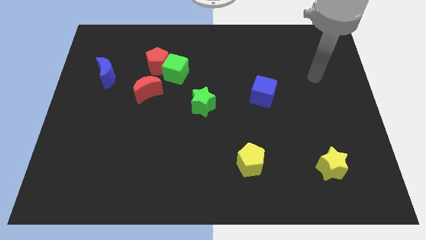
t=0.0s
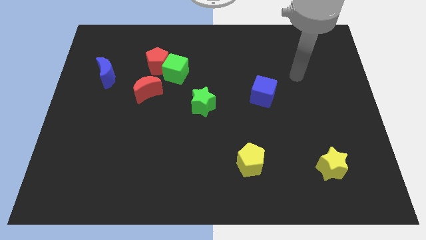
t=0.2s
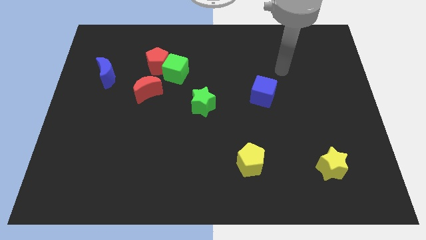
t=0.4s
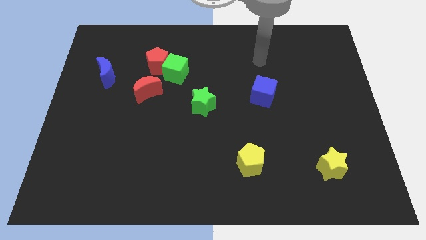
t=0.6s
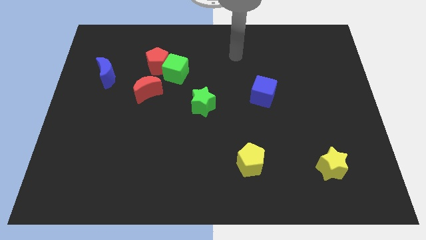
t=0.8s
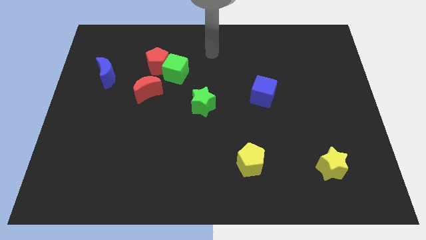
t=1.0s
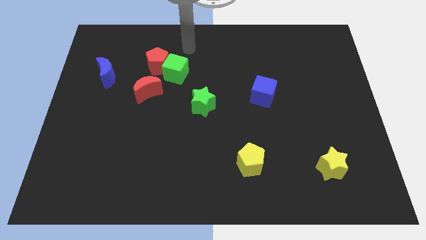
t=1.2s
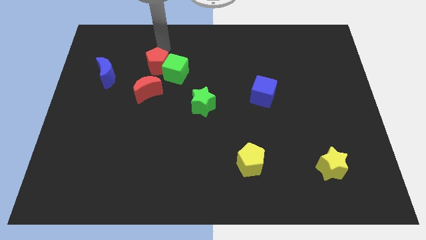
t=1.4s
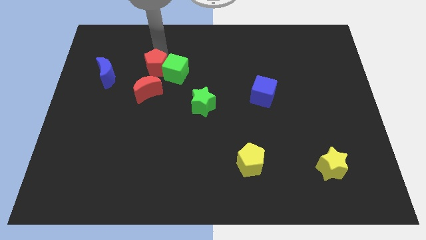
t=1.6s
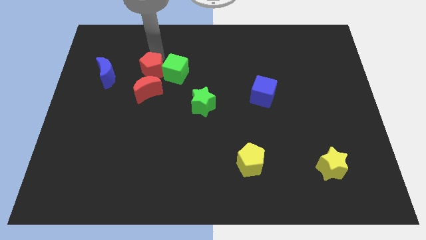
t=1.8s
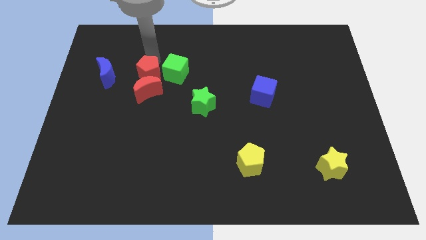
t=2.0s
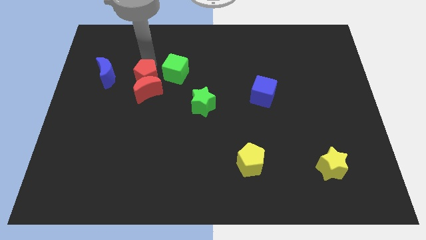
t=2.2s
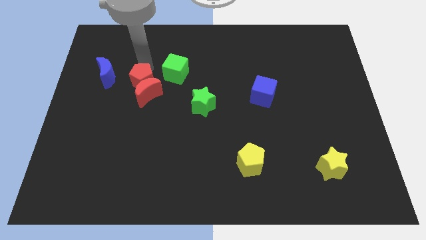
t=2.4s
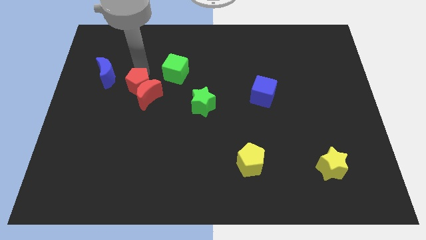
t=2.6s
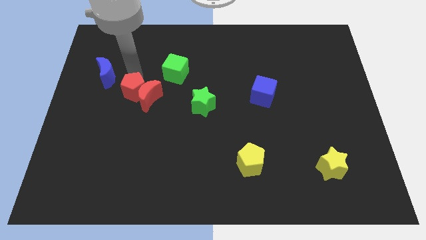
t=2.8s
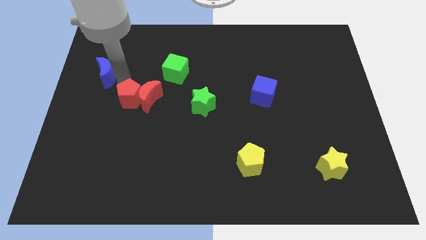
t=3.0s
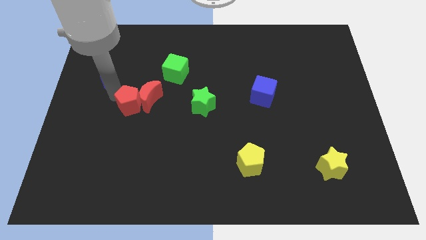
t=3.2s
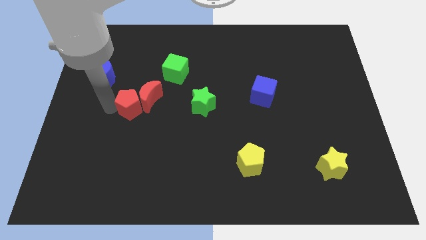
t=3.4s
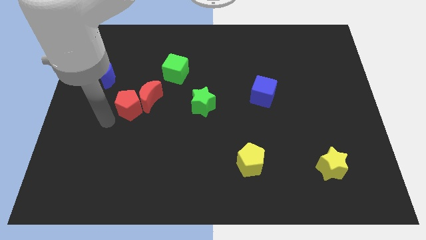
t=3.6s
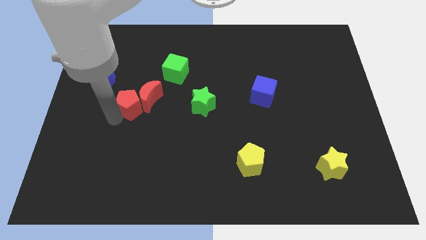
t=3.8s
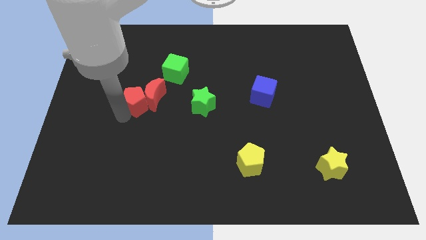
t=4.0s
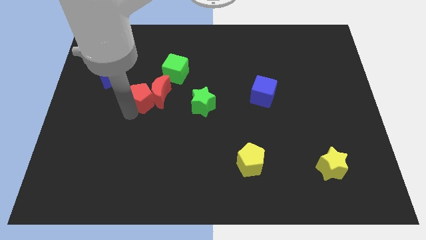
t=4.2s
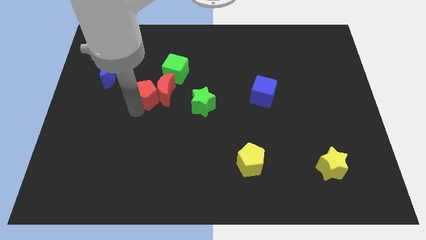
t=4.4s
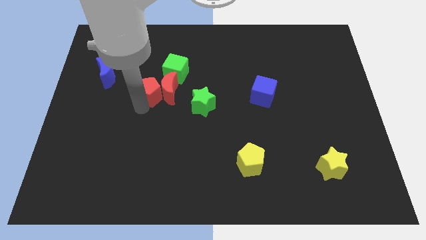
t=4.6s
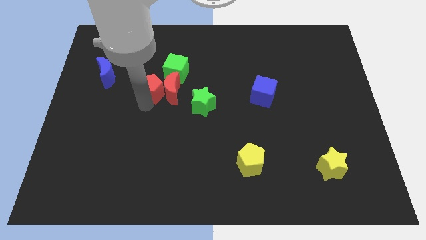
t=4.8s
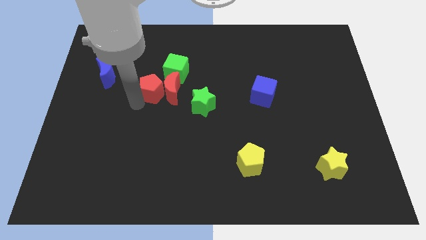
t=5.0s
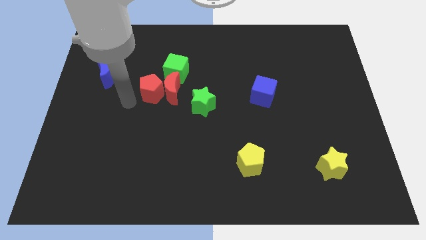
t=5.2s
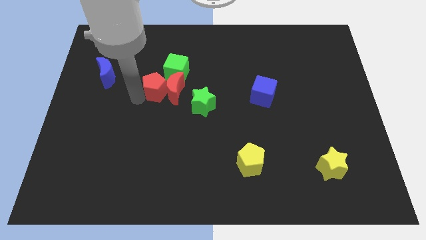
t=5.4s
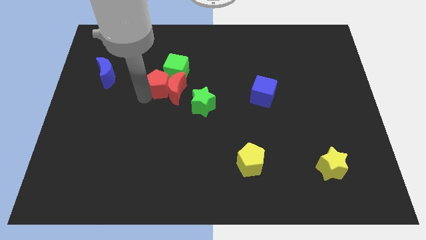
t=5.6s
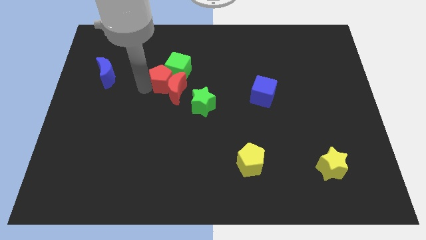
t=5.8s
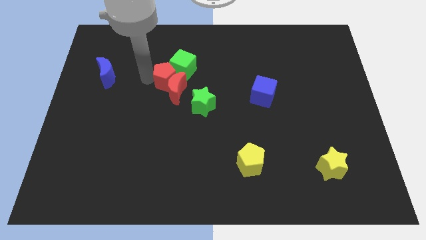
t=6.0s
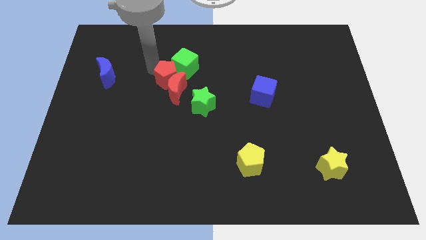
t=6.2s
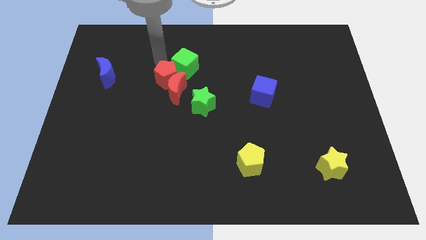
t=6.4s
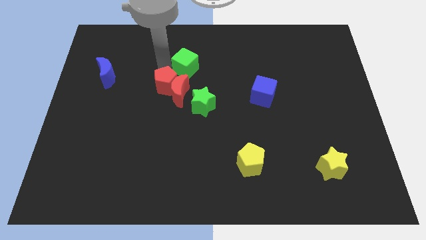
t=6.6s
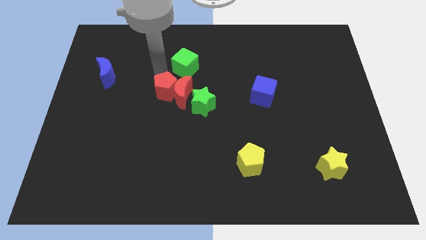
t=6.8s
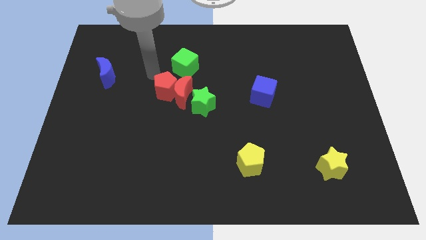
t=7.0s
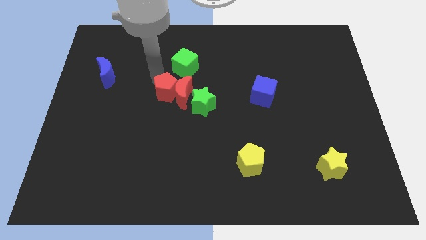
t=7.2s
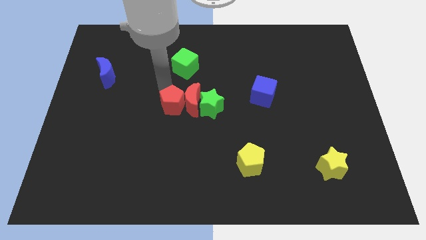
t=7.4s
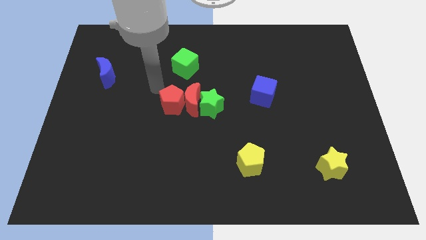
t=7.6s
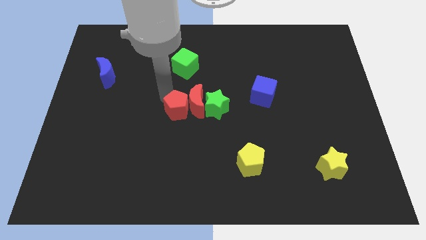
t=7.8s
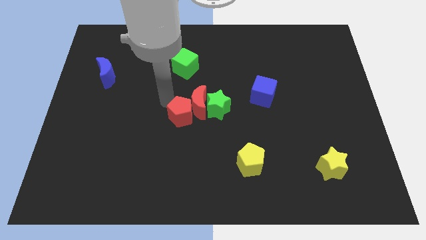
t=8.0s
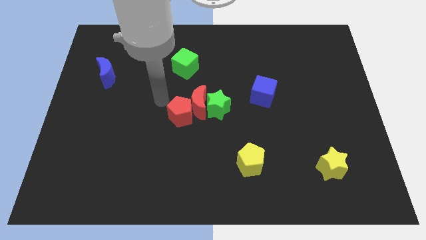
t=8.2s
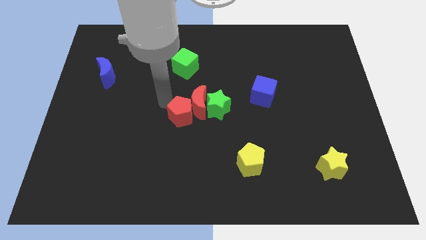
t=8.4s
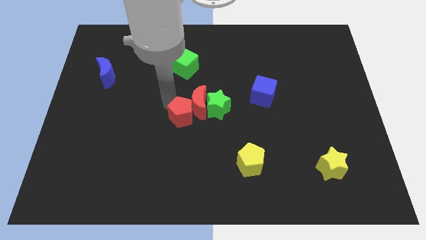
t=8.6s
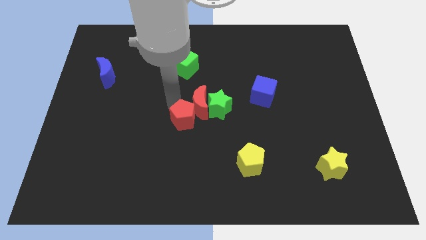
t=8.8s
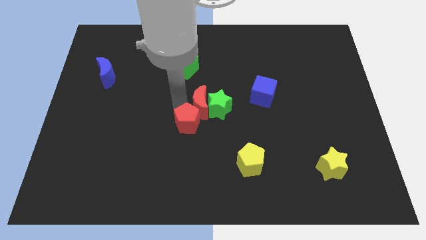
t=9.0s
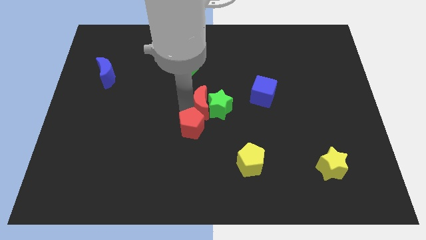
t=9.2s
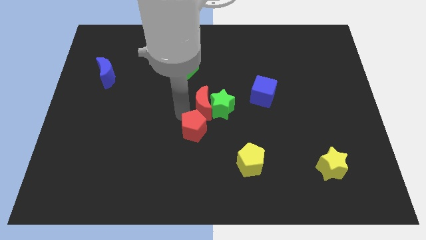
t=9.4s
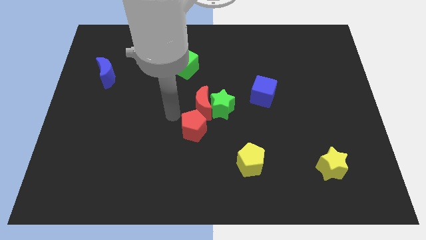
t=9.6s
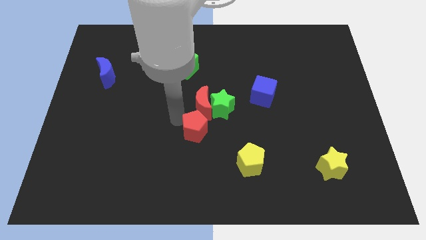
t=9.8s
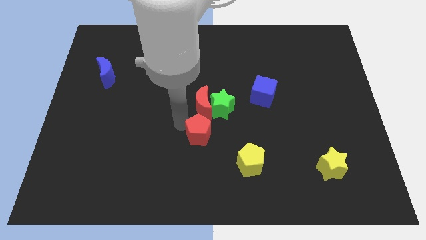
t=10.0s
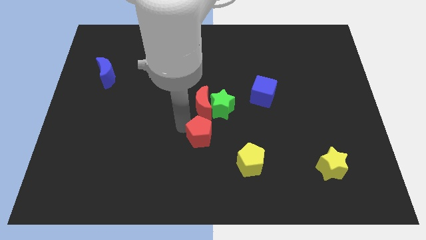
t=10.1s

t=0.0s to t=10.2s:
slide the red pentagon to the bottom of the green star

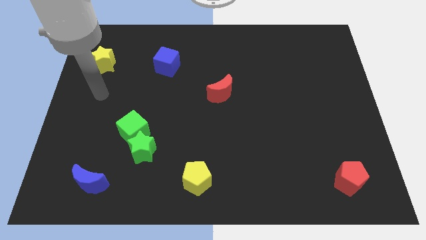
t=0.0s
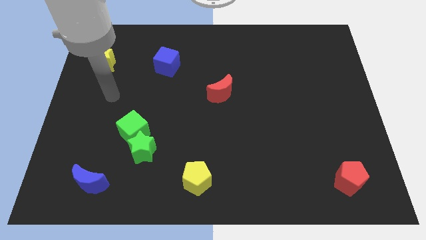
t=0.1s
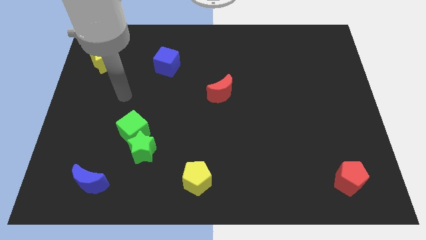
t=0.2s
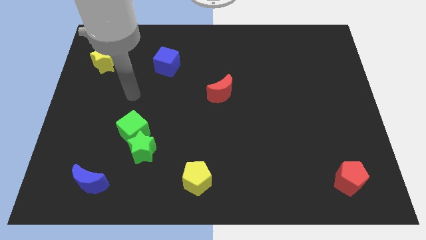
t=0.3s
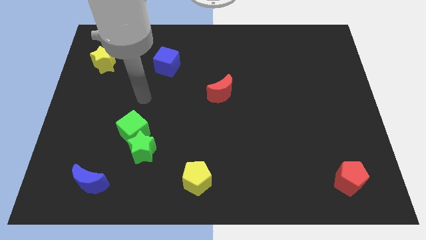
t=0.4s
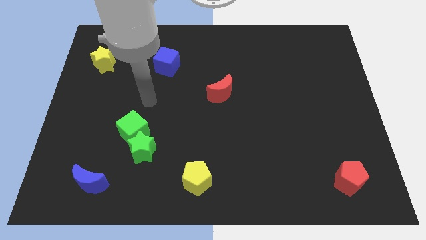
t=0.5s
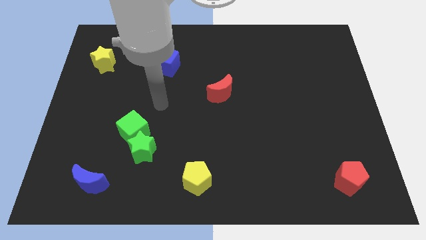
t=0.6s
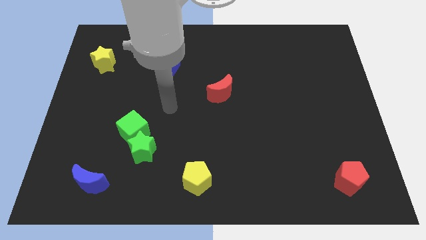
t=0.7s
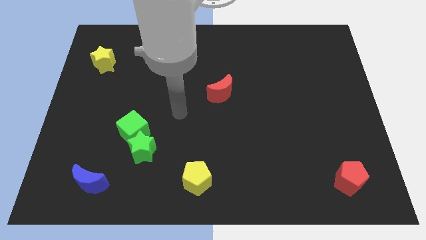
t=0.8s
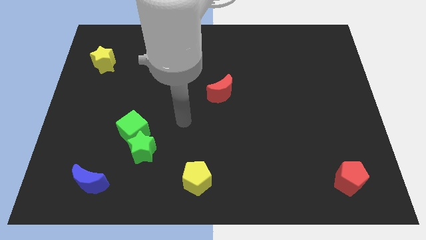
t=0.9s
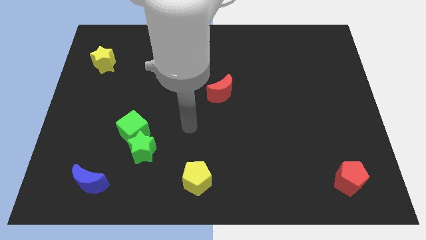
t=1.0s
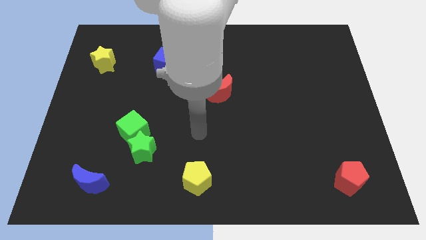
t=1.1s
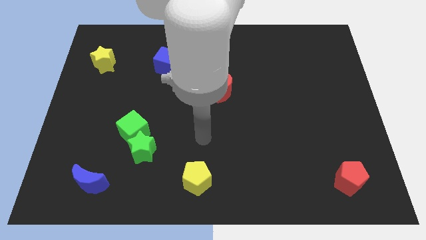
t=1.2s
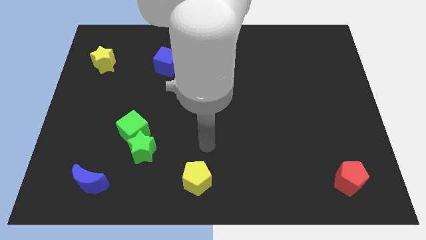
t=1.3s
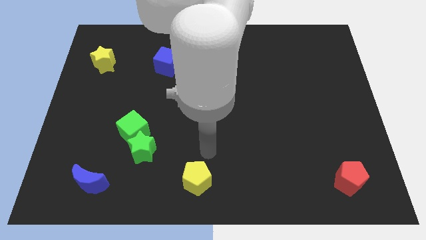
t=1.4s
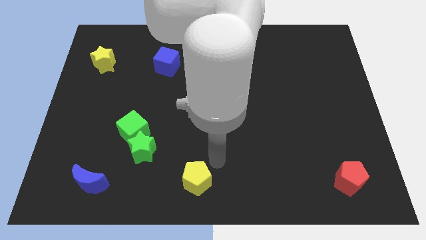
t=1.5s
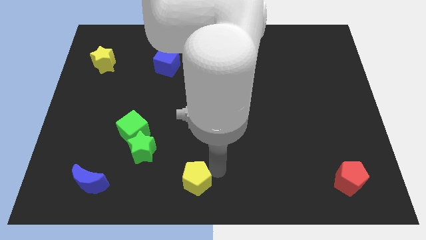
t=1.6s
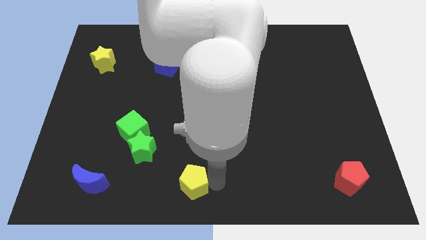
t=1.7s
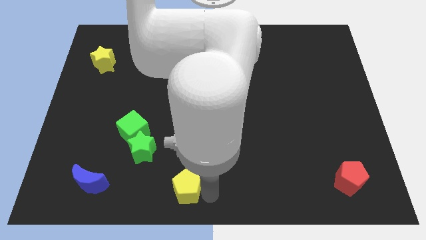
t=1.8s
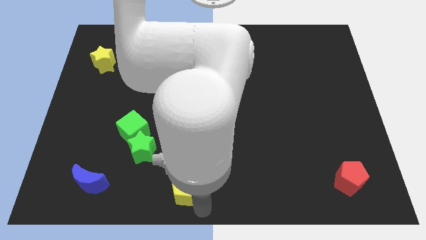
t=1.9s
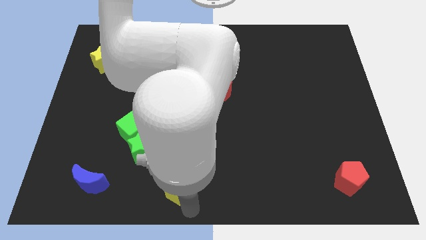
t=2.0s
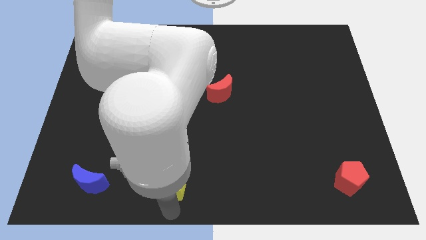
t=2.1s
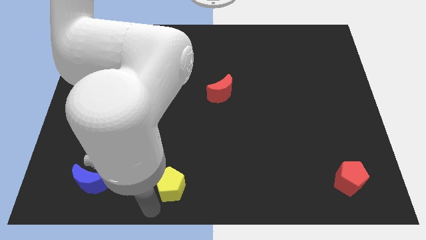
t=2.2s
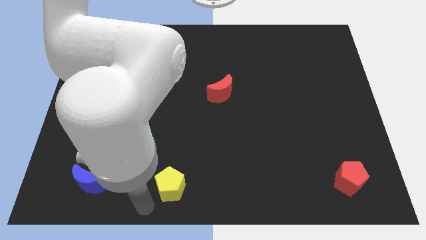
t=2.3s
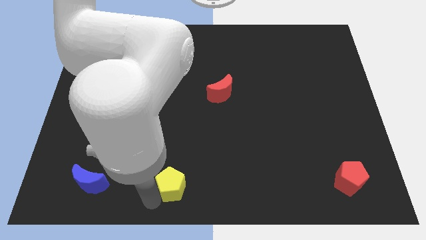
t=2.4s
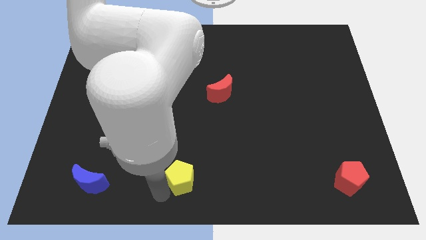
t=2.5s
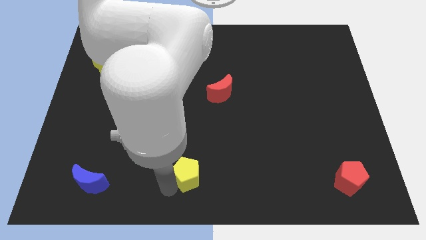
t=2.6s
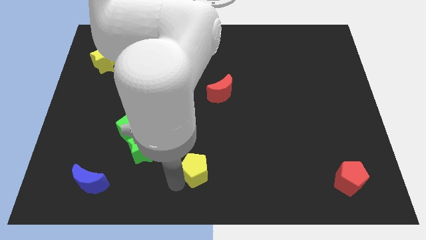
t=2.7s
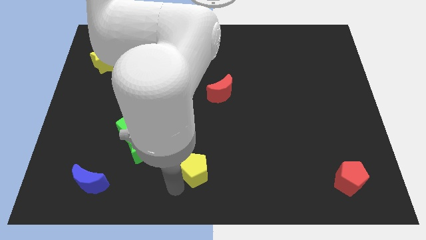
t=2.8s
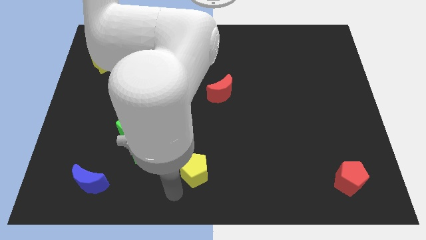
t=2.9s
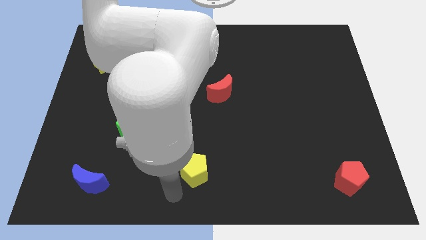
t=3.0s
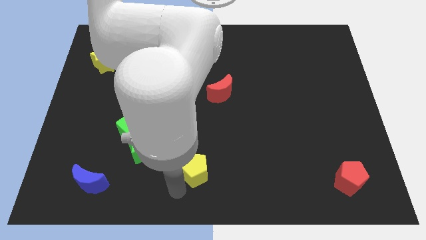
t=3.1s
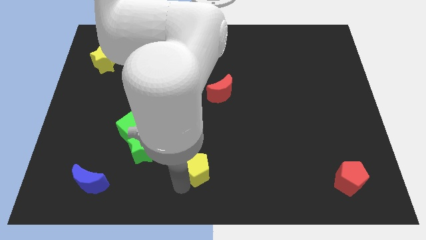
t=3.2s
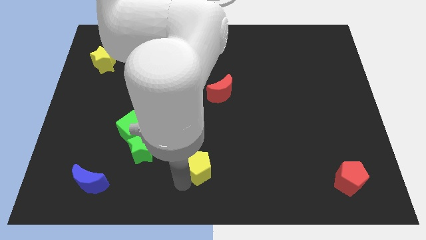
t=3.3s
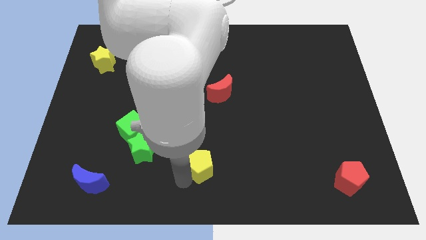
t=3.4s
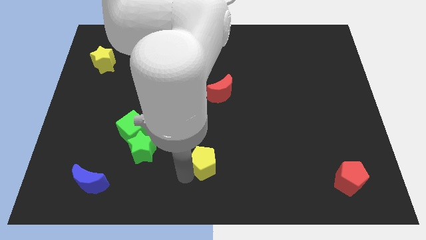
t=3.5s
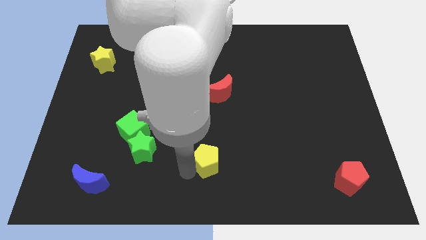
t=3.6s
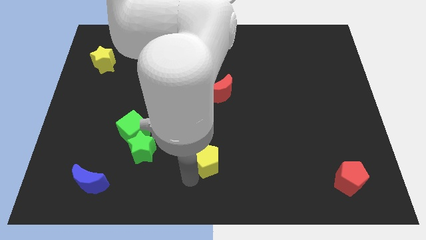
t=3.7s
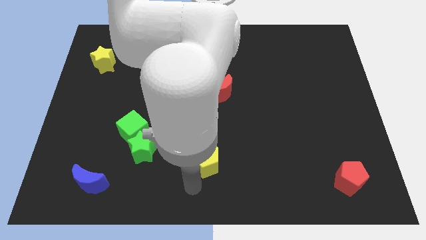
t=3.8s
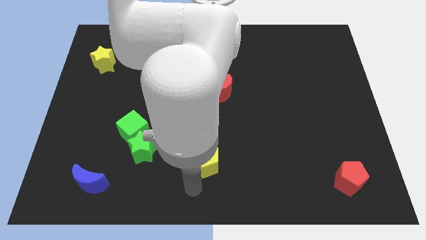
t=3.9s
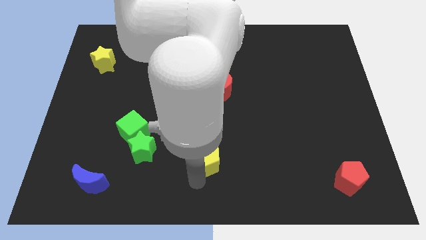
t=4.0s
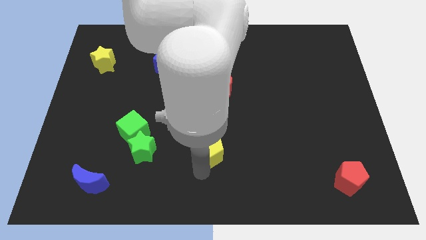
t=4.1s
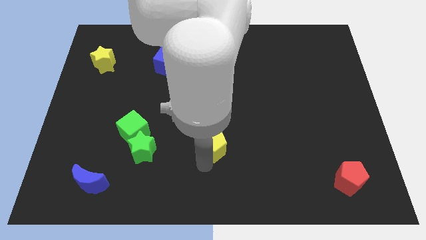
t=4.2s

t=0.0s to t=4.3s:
move the yellow pentagon to the bottom of the red moon
